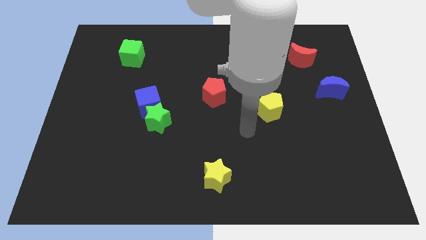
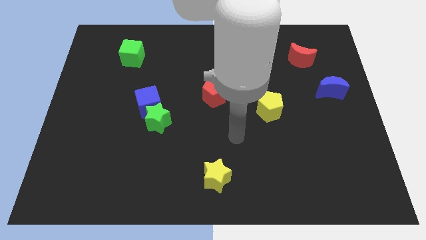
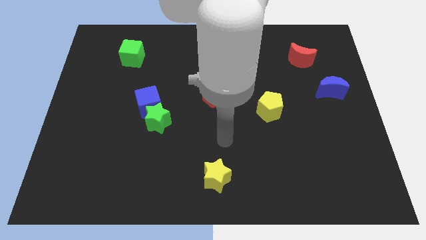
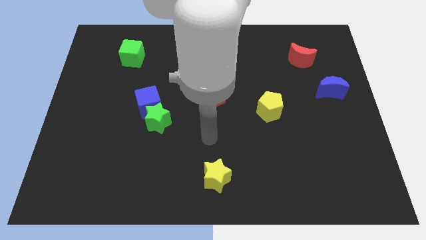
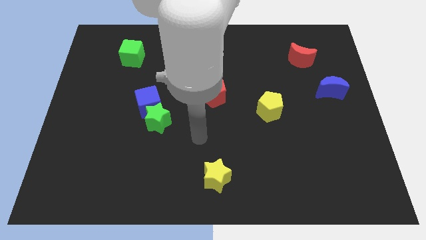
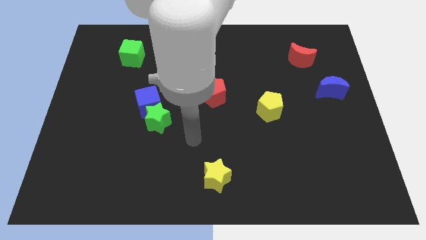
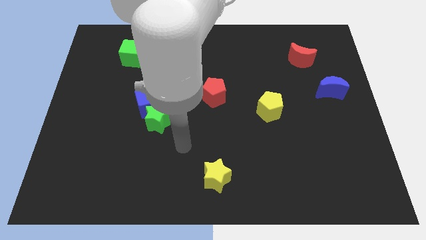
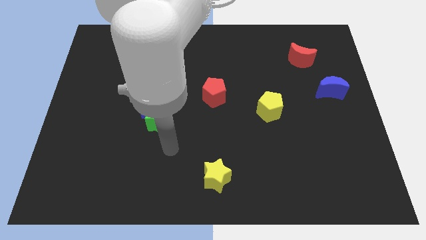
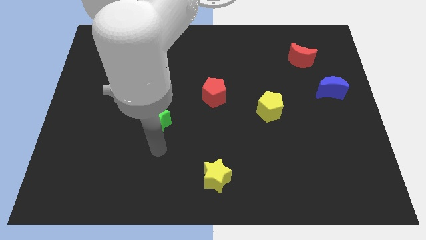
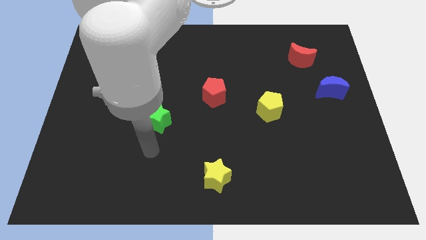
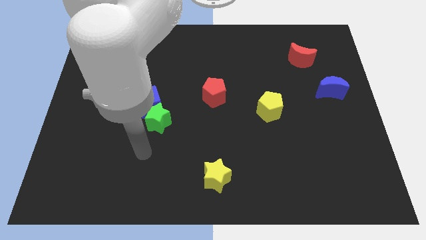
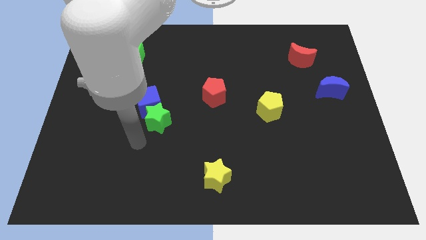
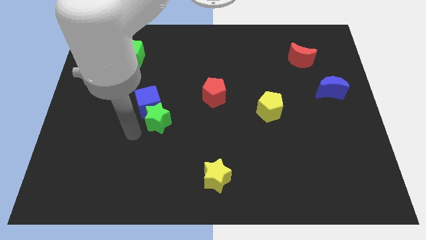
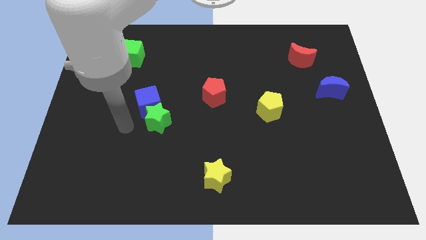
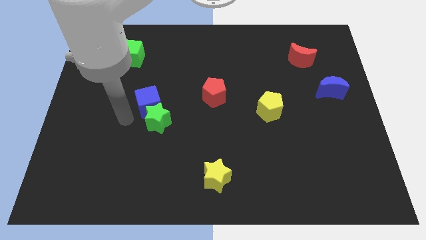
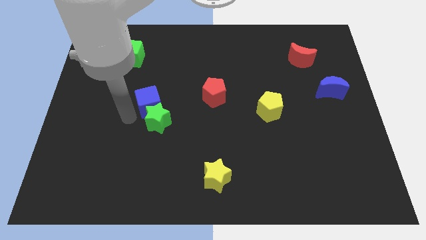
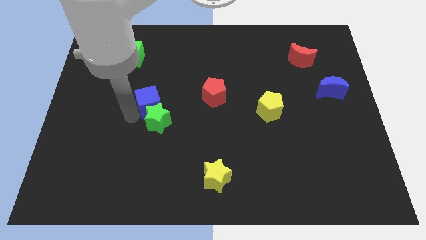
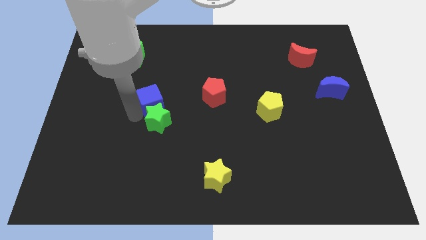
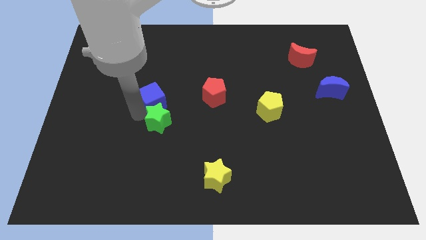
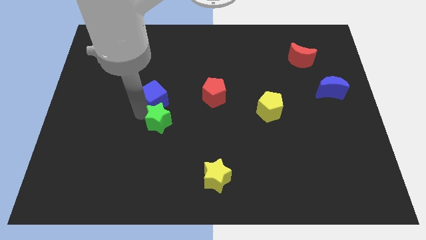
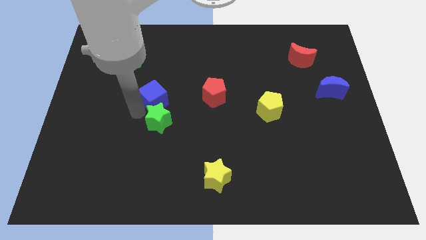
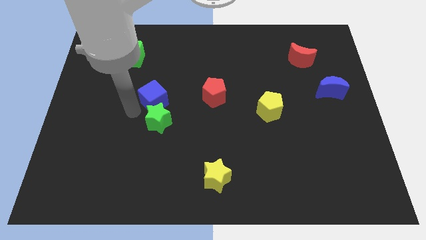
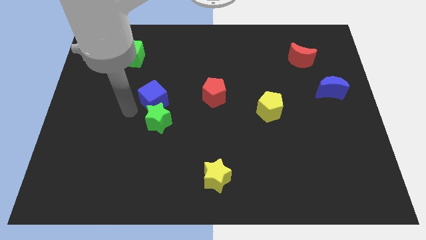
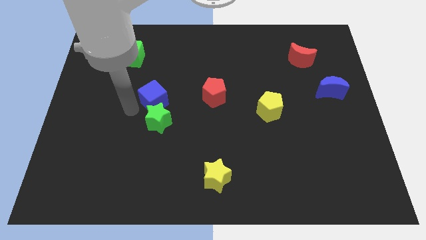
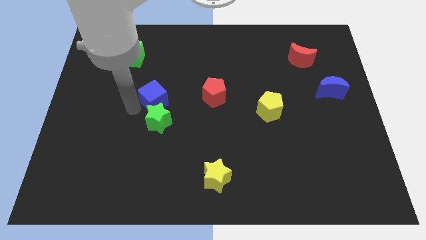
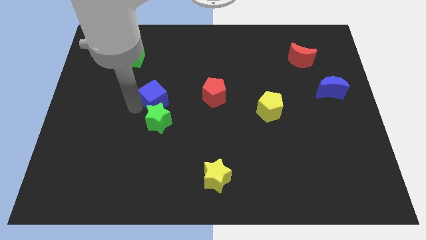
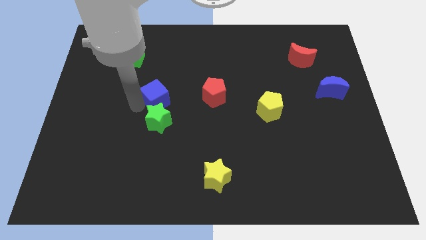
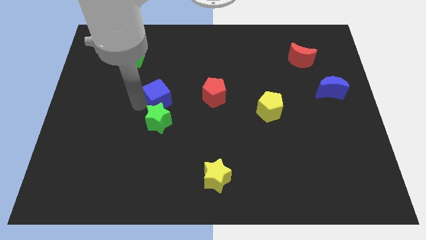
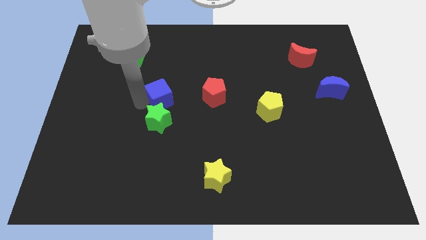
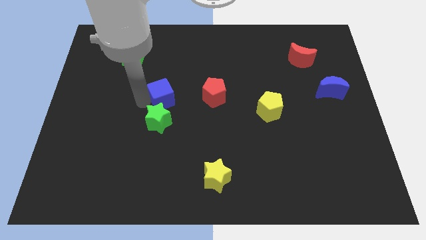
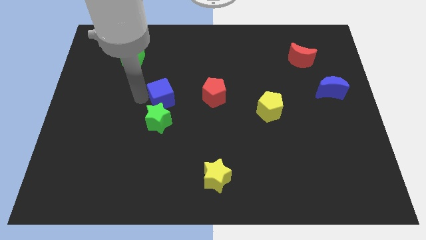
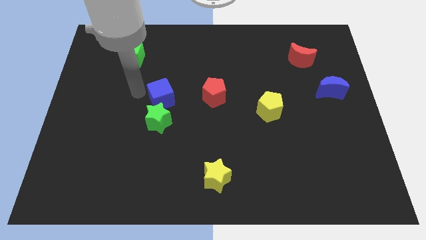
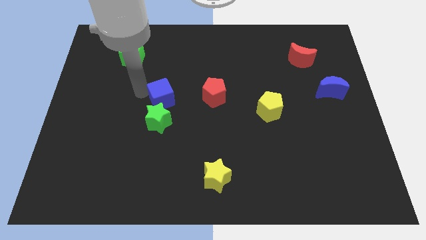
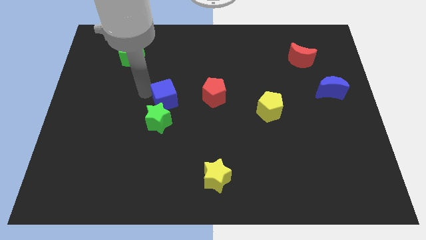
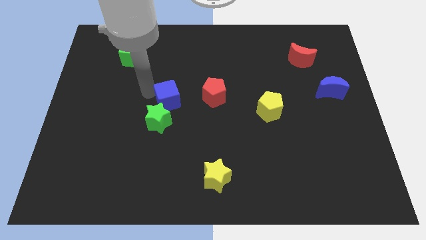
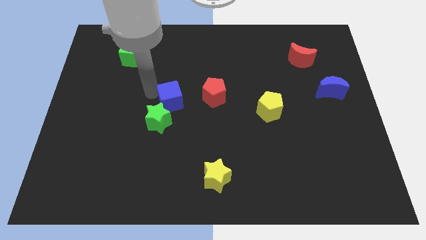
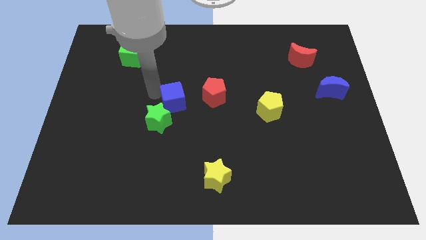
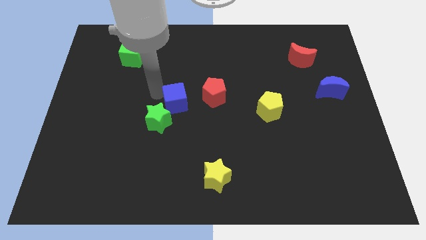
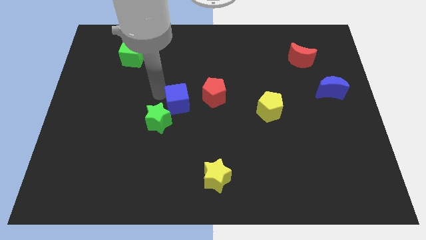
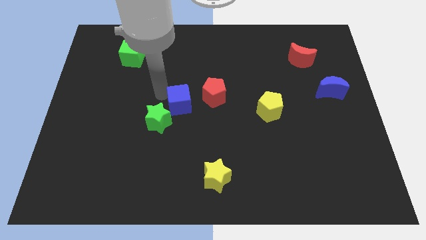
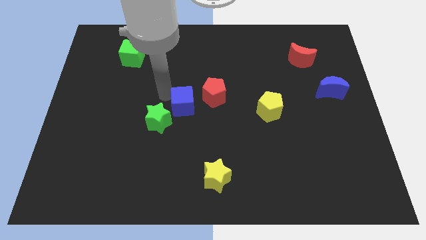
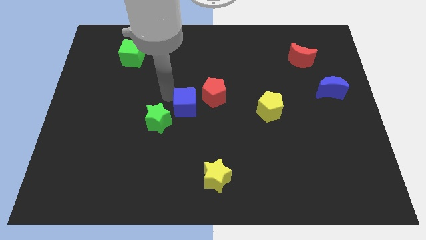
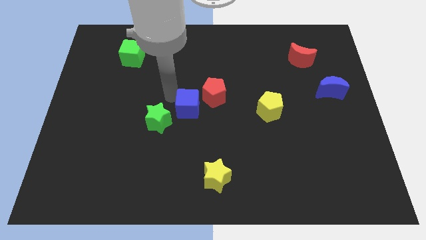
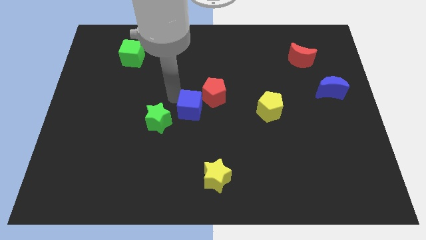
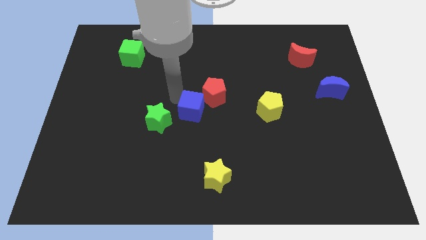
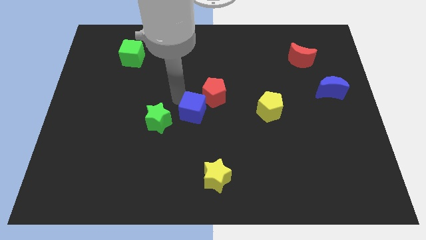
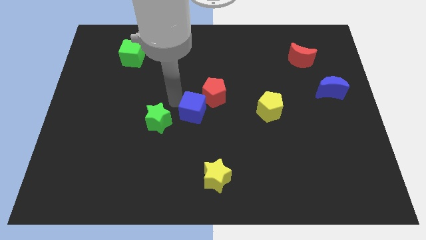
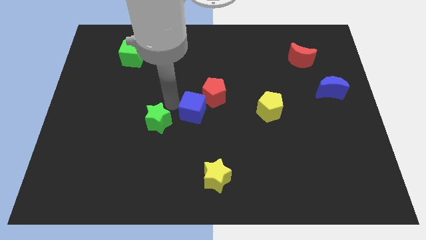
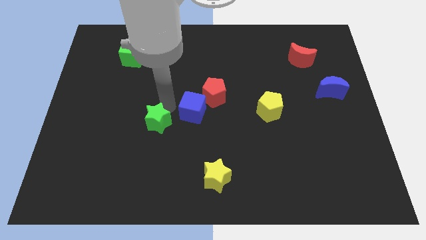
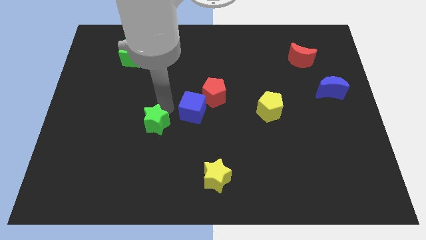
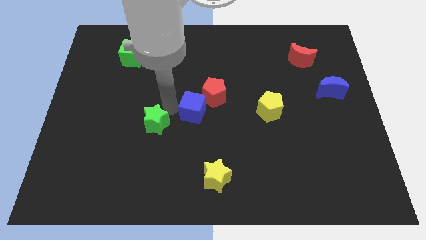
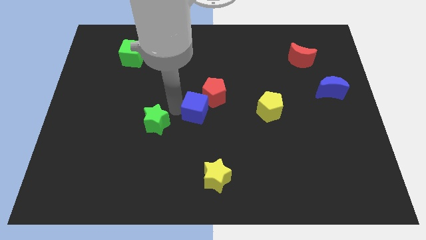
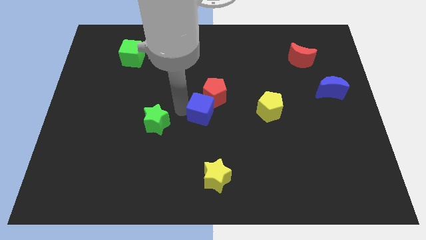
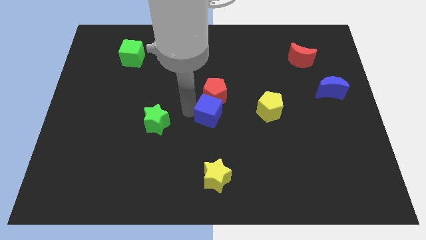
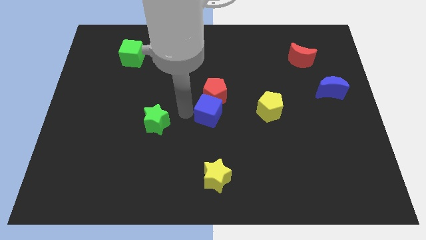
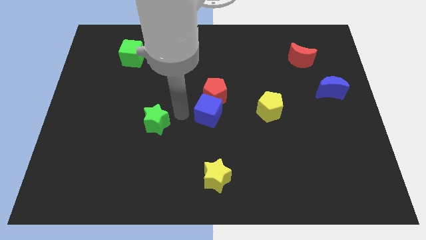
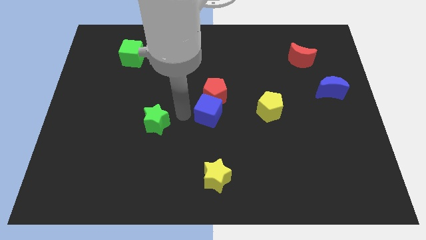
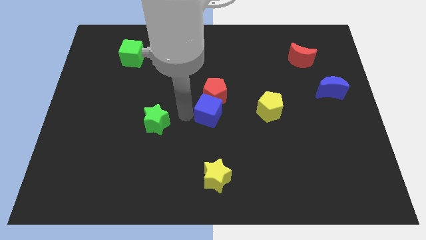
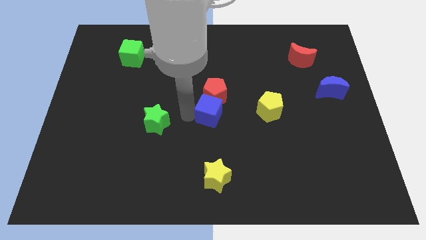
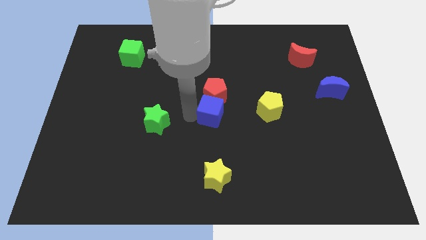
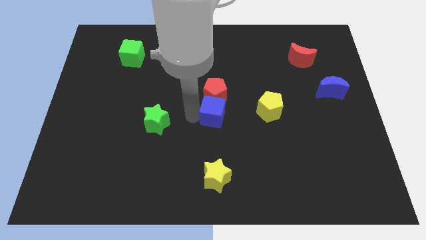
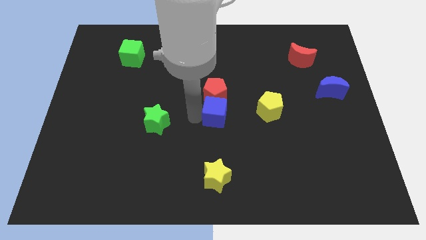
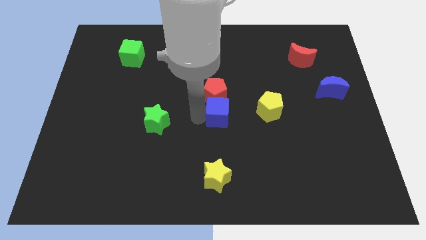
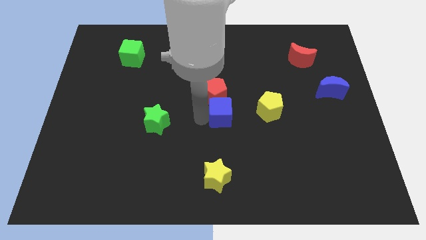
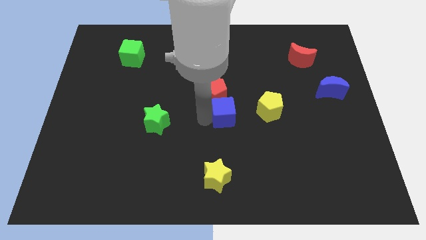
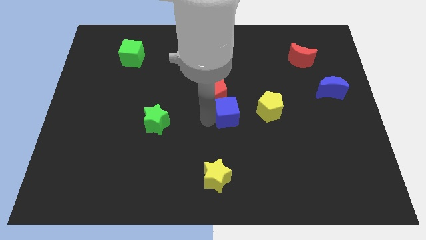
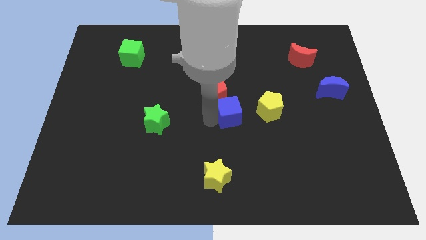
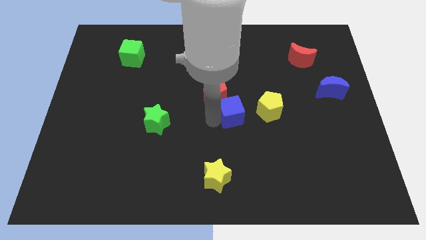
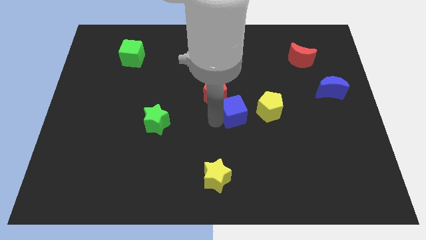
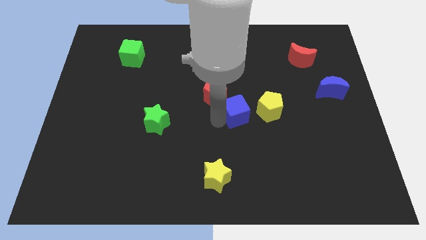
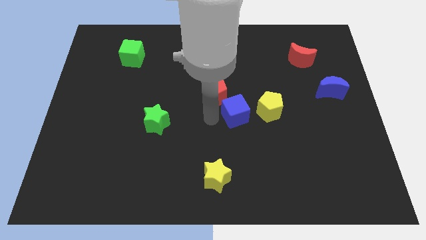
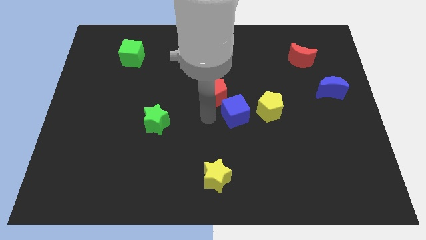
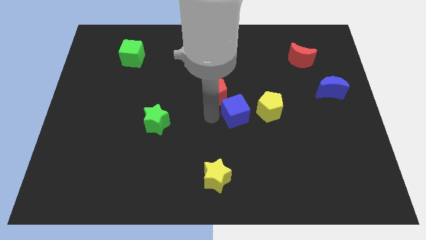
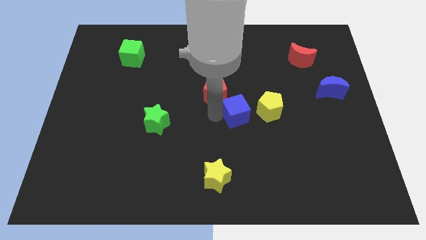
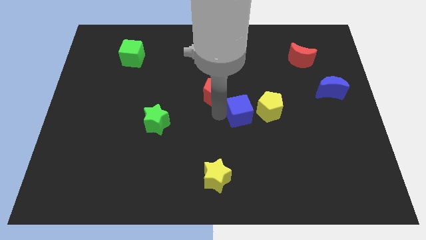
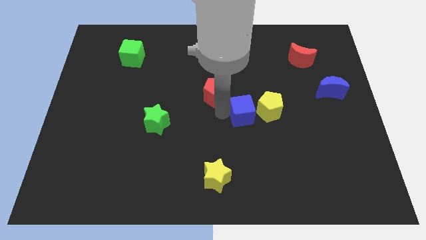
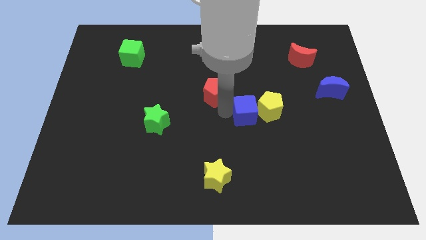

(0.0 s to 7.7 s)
push the blue cube towards the yellow pentagon
